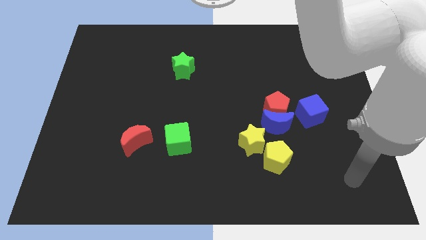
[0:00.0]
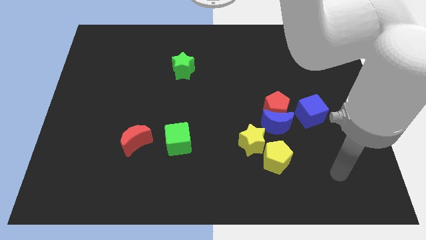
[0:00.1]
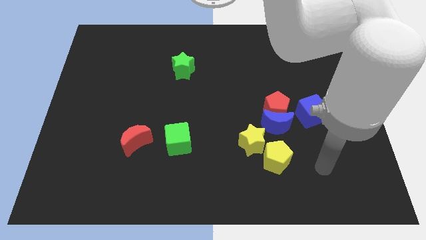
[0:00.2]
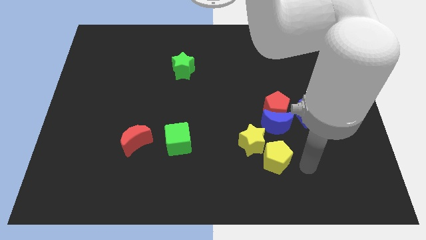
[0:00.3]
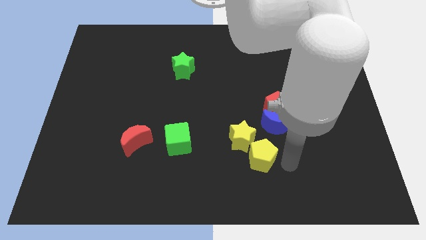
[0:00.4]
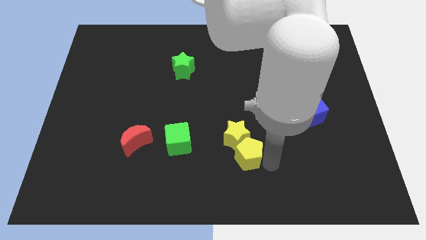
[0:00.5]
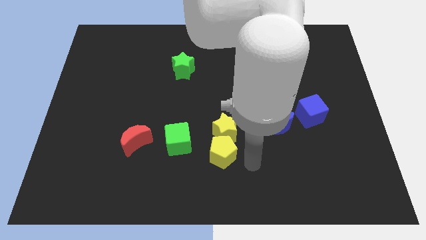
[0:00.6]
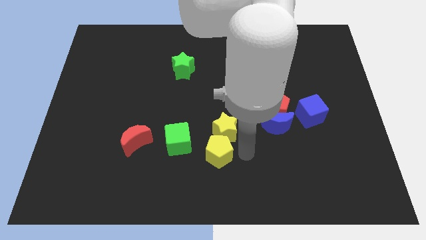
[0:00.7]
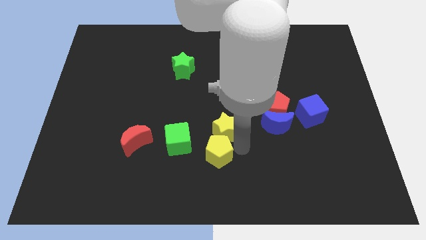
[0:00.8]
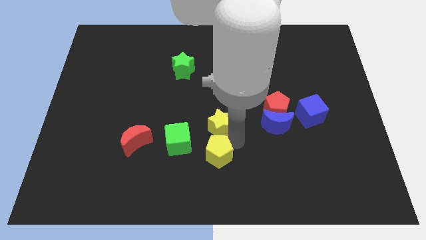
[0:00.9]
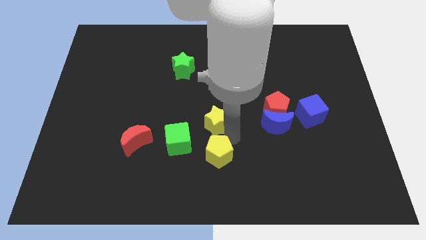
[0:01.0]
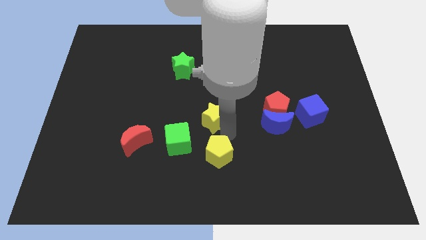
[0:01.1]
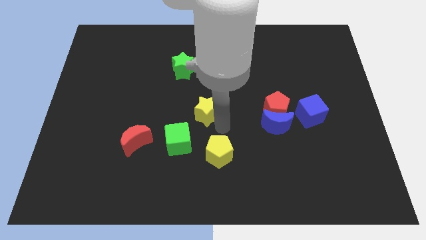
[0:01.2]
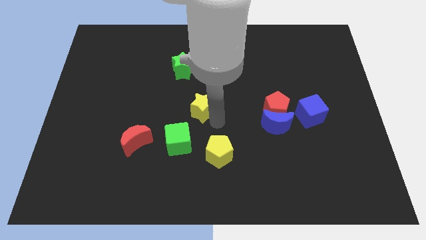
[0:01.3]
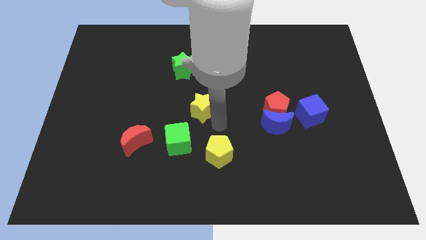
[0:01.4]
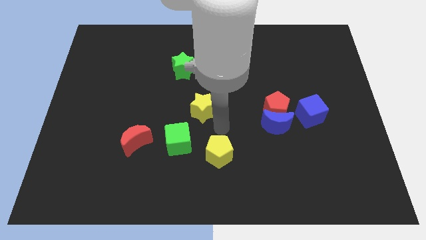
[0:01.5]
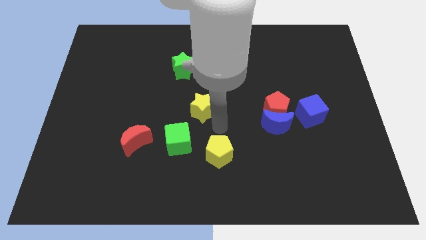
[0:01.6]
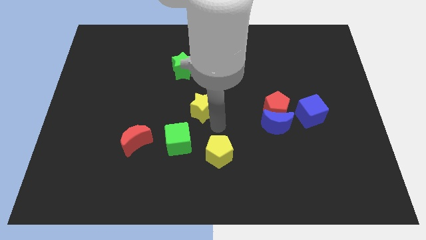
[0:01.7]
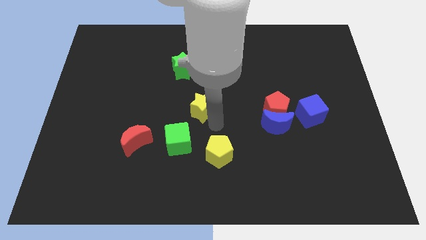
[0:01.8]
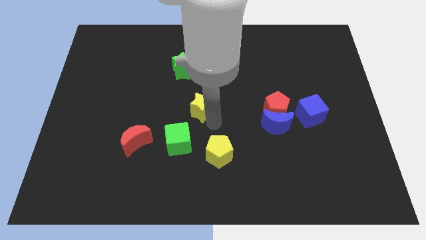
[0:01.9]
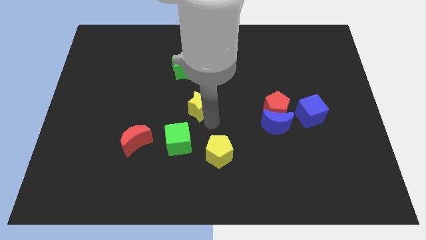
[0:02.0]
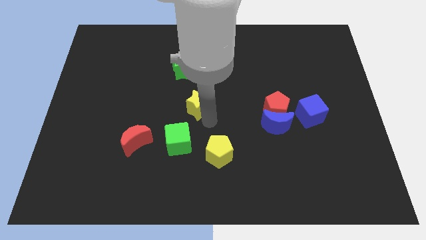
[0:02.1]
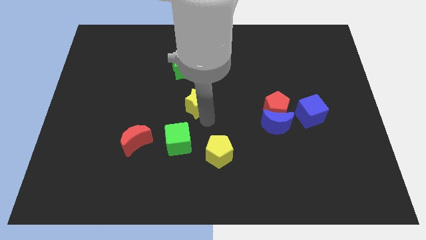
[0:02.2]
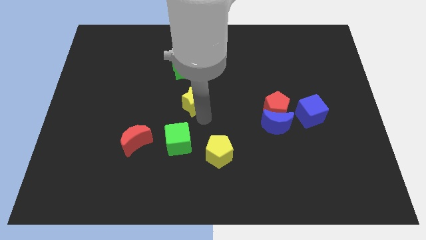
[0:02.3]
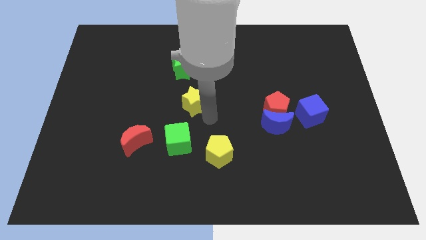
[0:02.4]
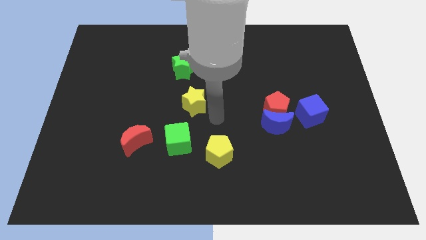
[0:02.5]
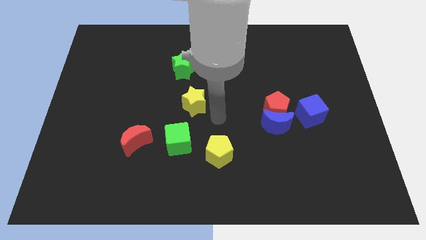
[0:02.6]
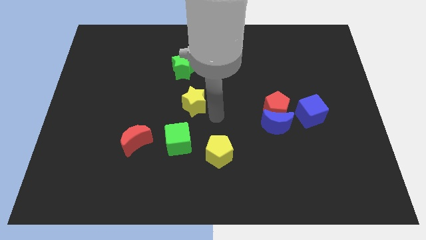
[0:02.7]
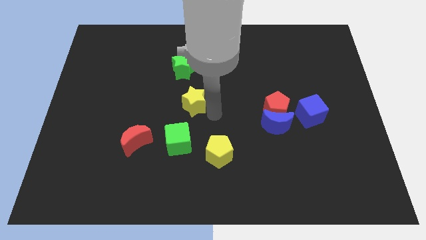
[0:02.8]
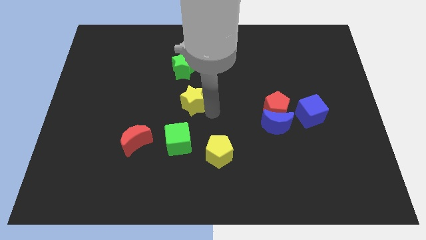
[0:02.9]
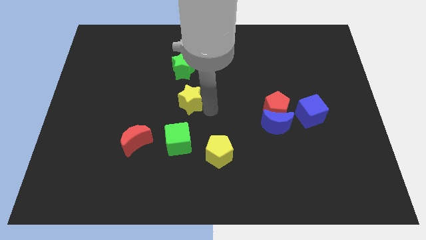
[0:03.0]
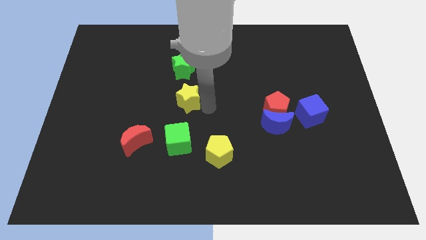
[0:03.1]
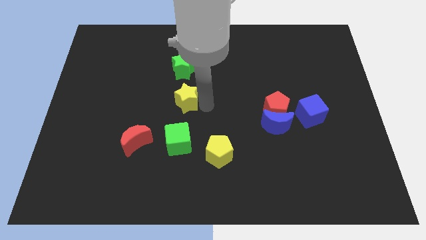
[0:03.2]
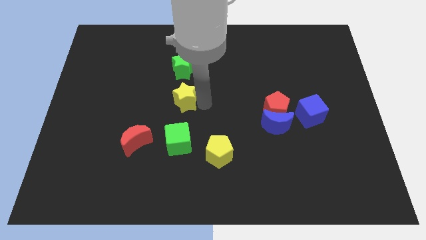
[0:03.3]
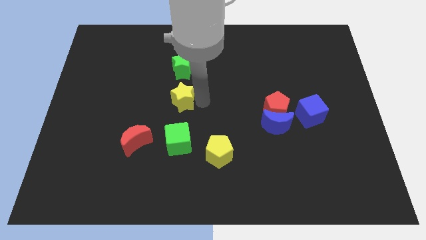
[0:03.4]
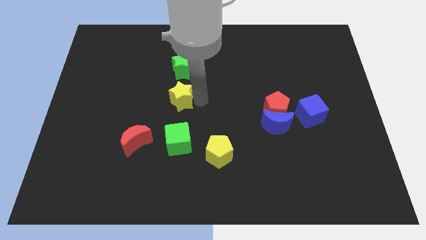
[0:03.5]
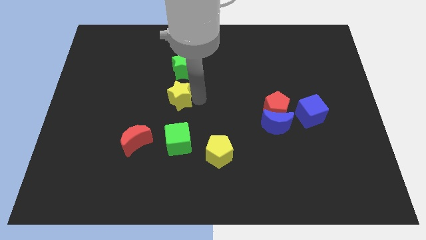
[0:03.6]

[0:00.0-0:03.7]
push the yellow star upwards and left diagonally

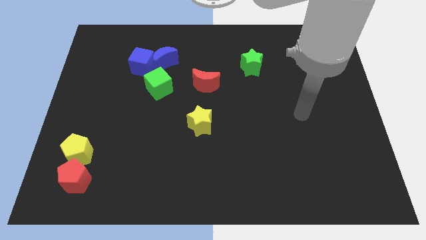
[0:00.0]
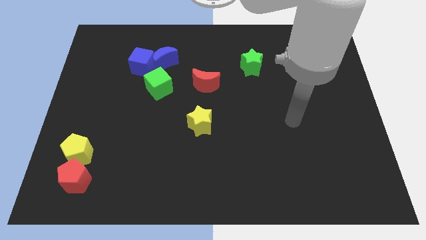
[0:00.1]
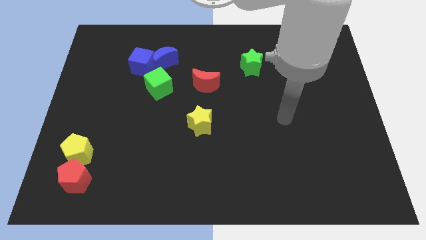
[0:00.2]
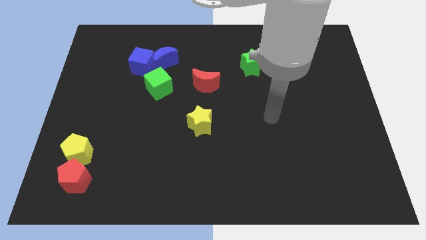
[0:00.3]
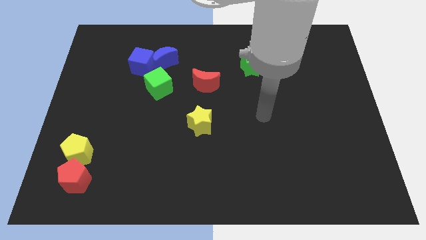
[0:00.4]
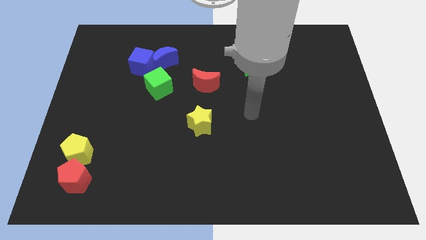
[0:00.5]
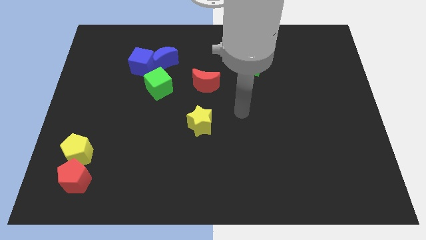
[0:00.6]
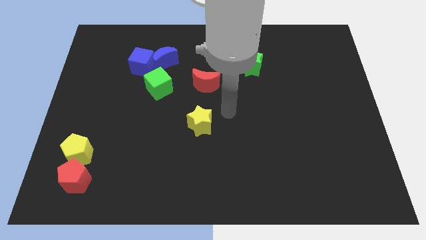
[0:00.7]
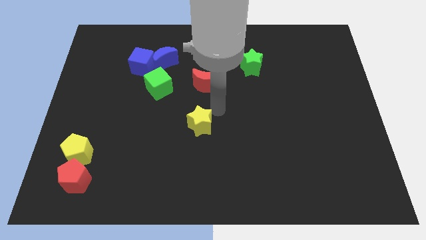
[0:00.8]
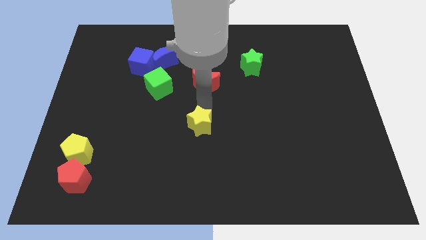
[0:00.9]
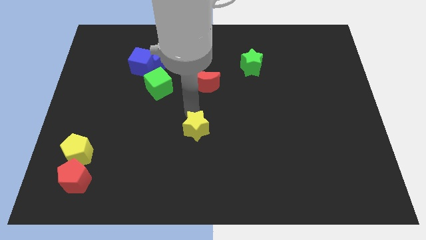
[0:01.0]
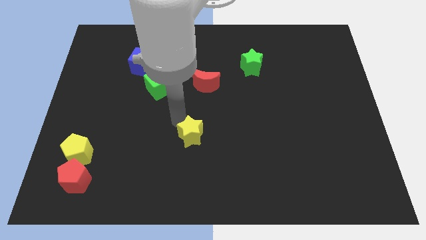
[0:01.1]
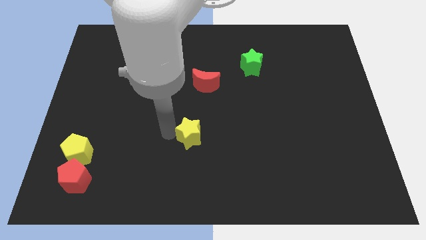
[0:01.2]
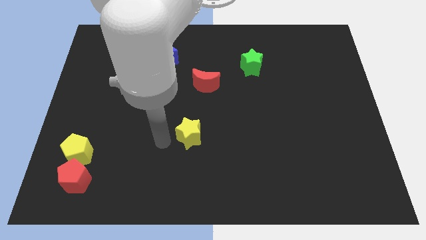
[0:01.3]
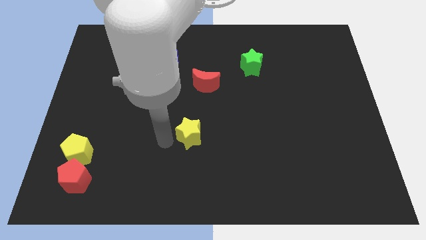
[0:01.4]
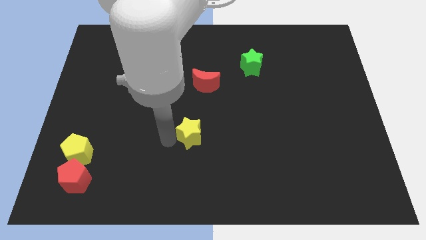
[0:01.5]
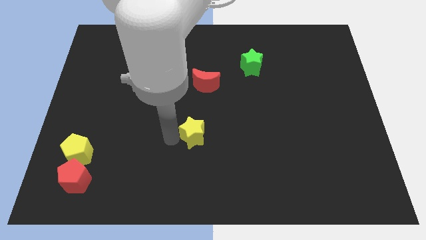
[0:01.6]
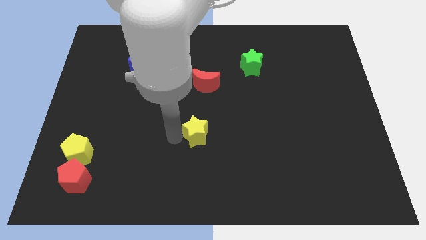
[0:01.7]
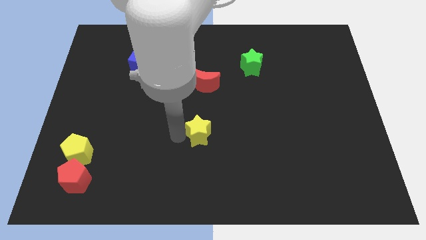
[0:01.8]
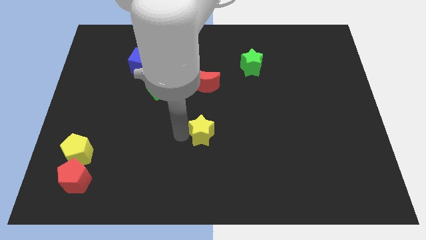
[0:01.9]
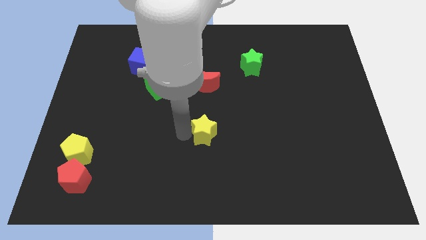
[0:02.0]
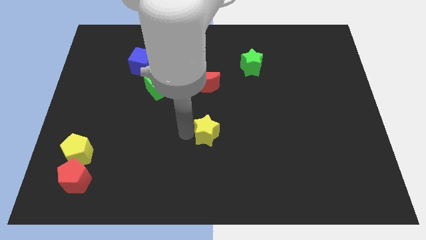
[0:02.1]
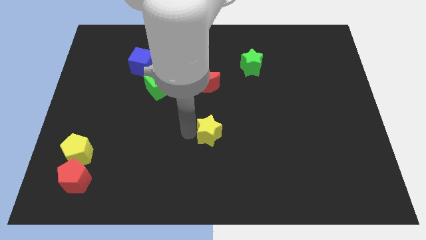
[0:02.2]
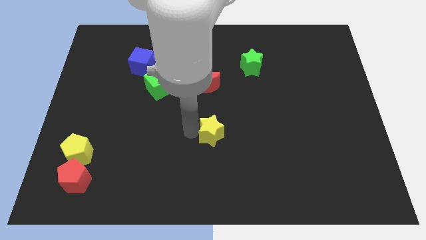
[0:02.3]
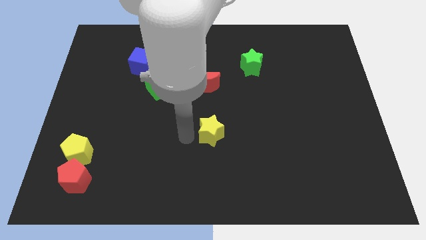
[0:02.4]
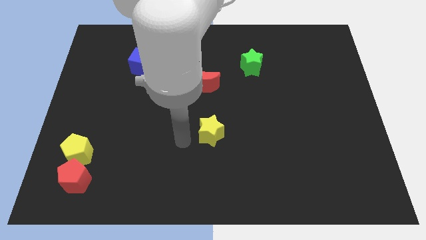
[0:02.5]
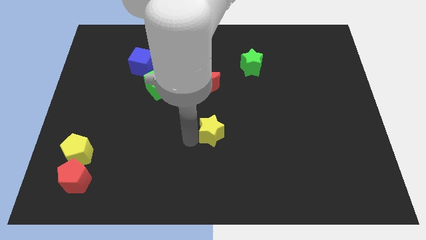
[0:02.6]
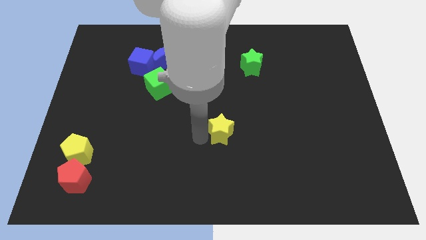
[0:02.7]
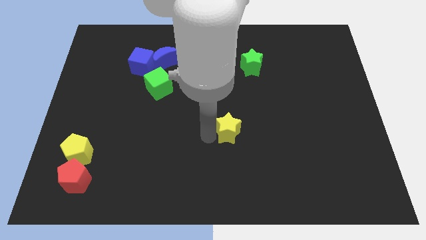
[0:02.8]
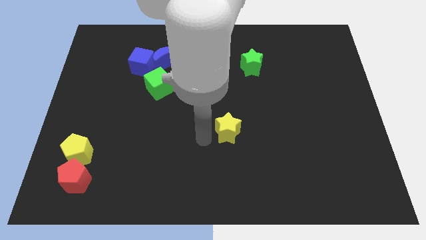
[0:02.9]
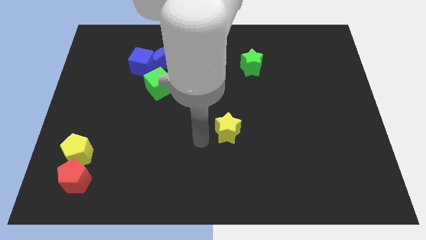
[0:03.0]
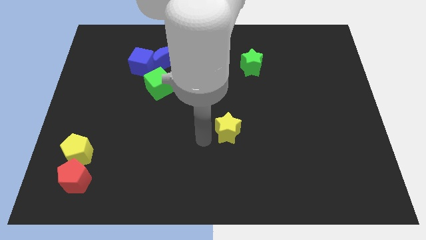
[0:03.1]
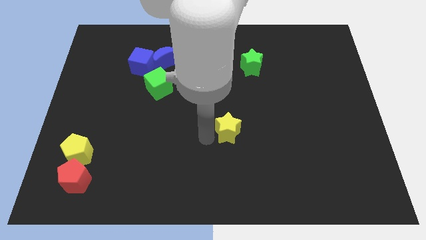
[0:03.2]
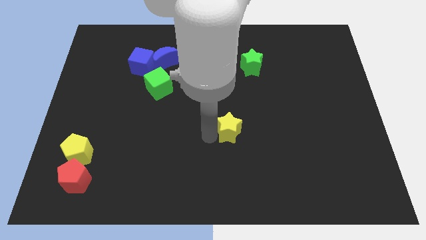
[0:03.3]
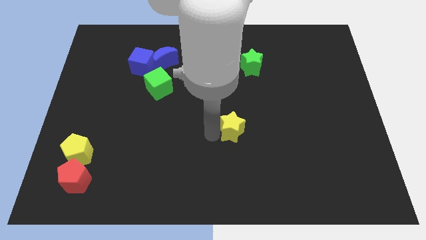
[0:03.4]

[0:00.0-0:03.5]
slightly move the yellow star to the right

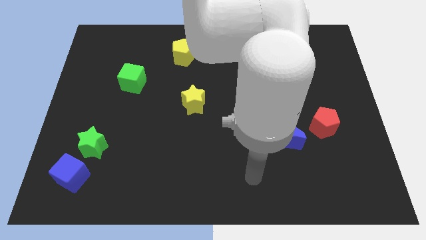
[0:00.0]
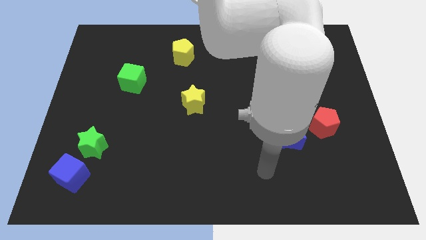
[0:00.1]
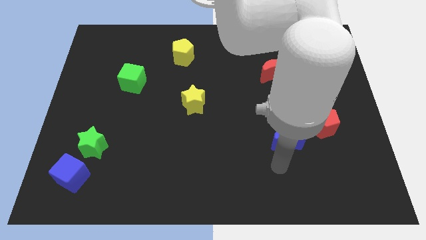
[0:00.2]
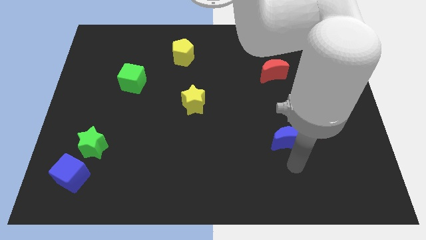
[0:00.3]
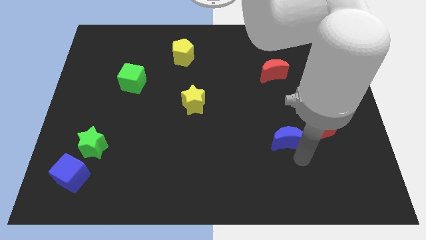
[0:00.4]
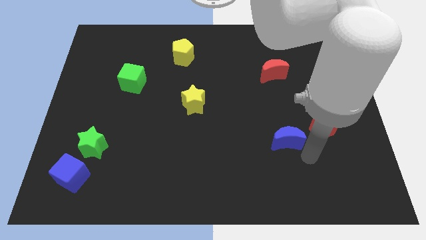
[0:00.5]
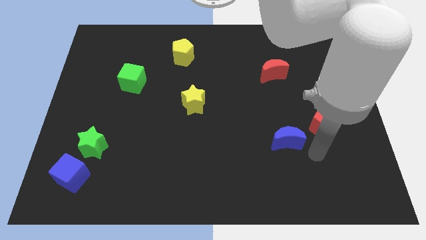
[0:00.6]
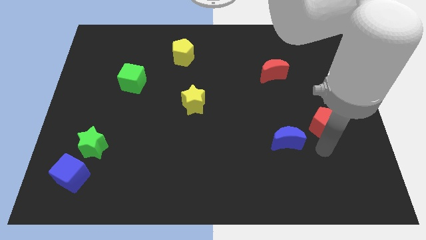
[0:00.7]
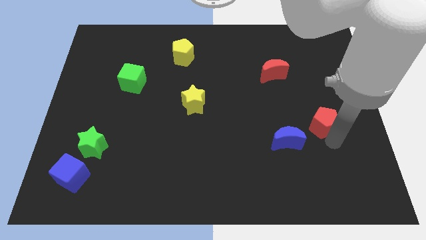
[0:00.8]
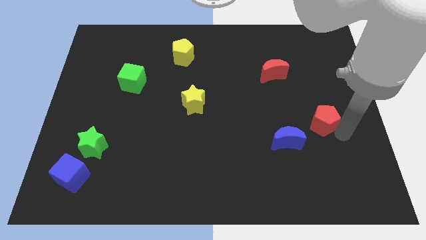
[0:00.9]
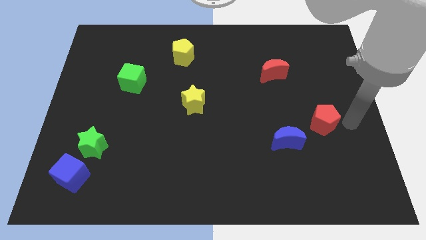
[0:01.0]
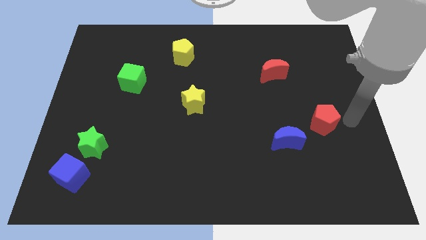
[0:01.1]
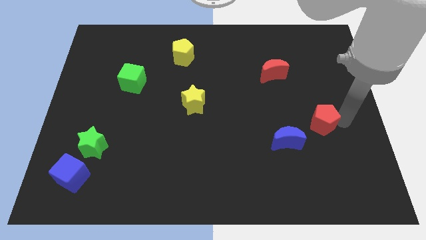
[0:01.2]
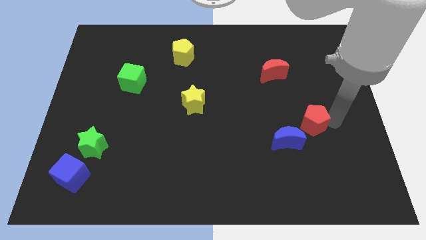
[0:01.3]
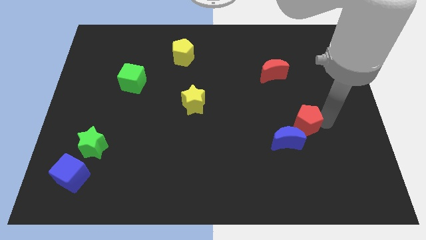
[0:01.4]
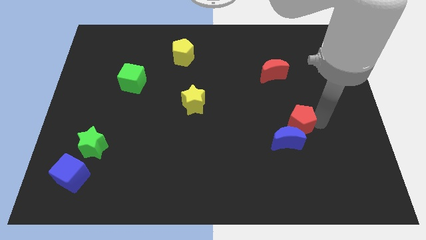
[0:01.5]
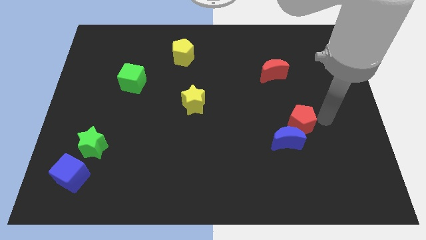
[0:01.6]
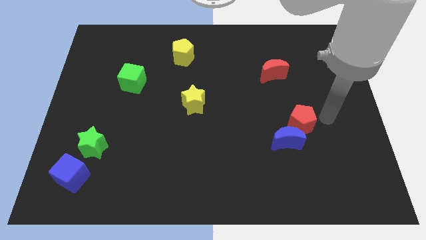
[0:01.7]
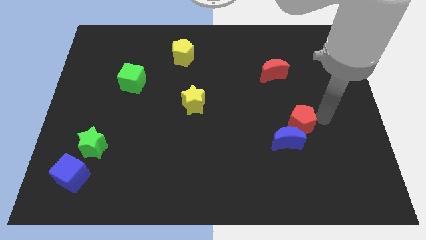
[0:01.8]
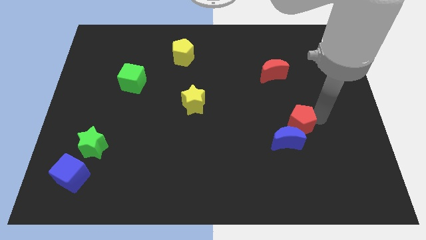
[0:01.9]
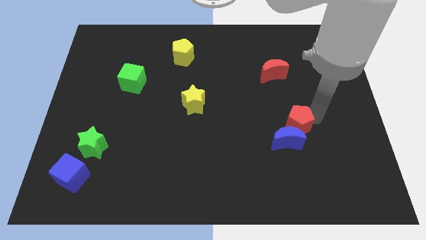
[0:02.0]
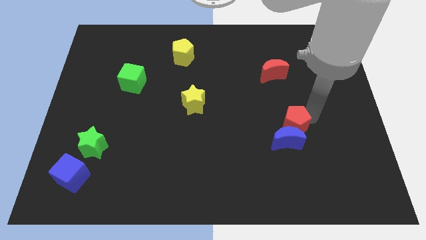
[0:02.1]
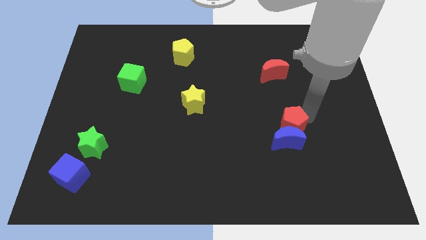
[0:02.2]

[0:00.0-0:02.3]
move the red pentagon slightly left
